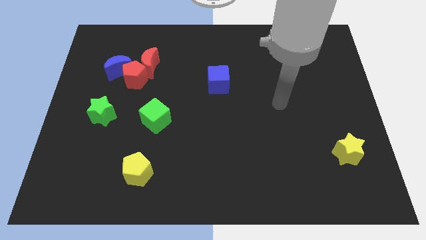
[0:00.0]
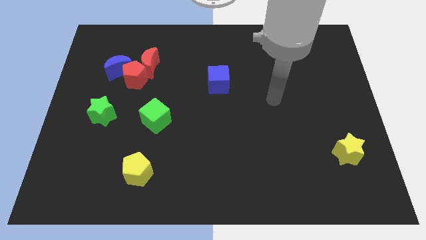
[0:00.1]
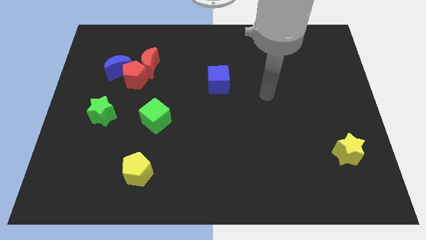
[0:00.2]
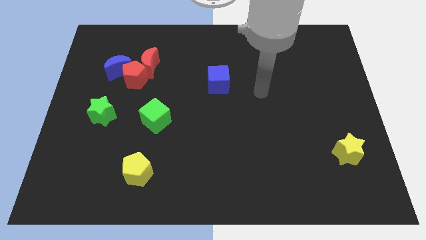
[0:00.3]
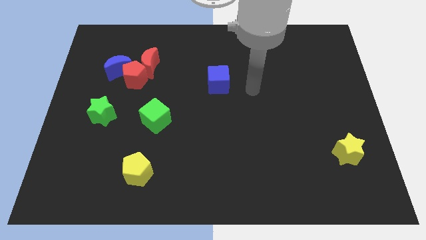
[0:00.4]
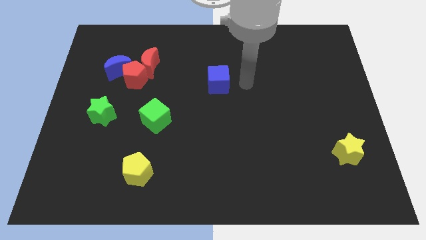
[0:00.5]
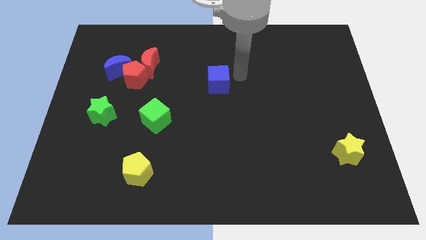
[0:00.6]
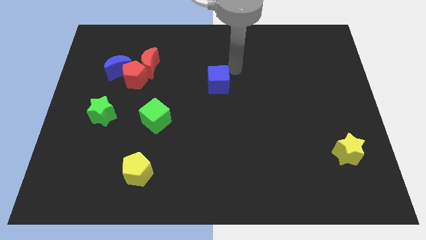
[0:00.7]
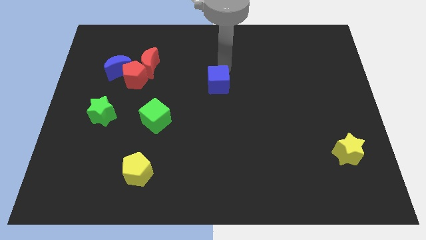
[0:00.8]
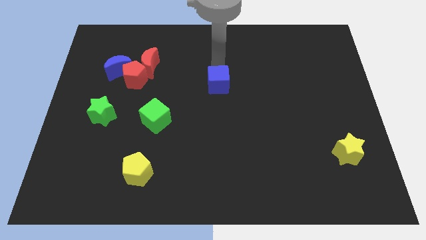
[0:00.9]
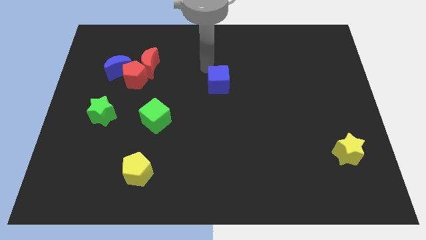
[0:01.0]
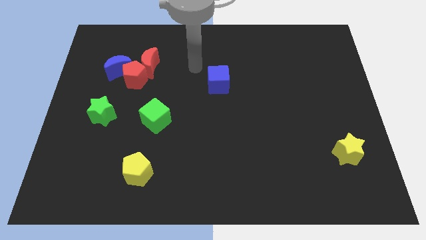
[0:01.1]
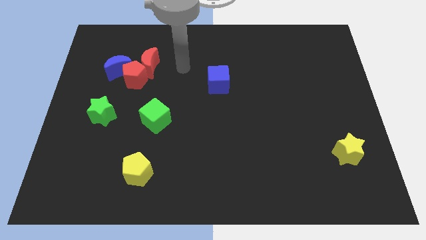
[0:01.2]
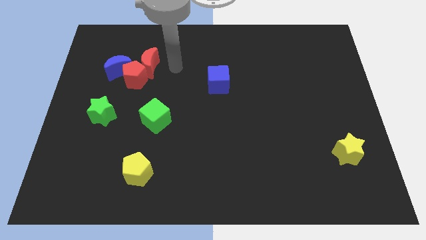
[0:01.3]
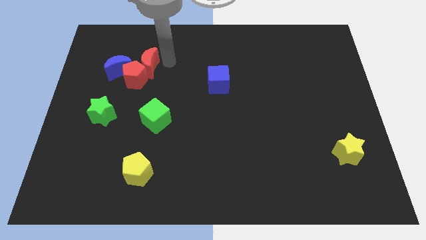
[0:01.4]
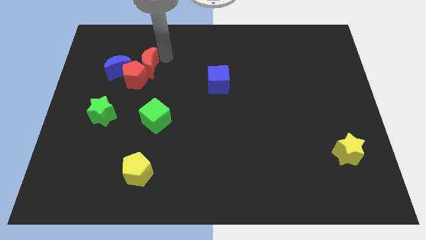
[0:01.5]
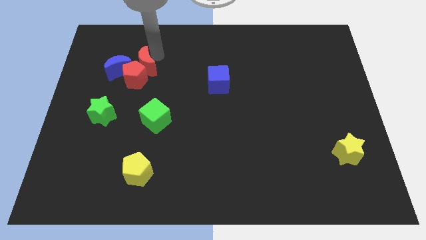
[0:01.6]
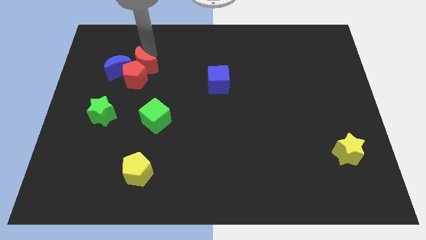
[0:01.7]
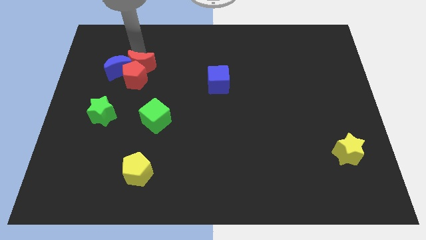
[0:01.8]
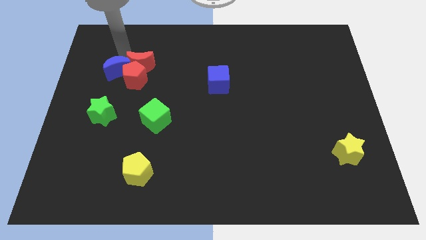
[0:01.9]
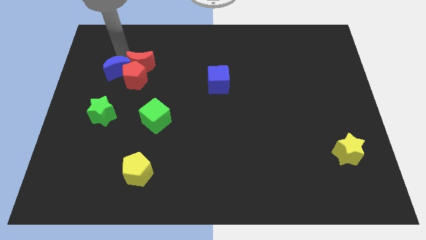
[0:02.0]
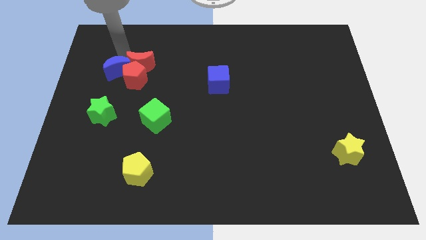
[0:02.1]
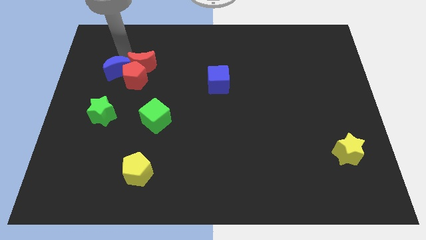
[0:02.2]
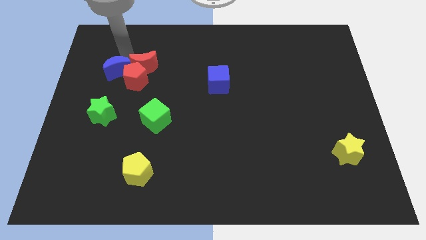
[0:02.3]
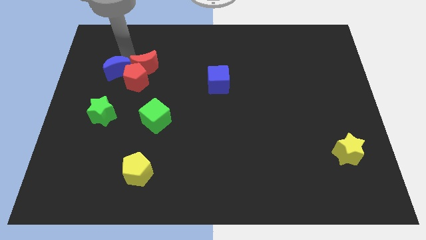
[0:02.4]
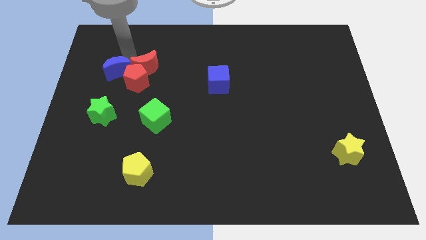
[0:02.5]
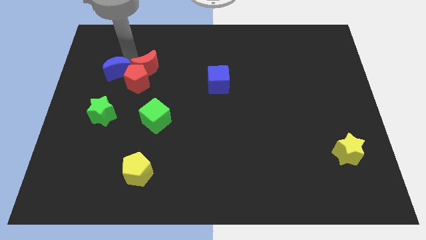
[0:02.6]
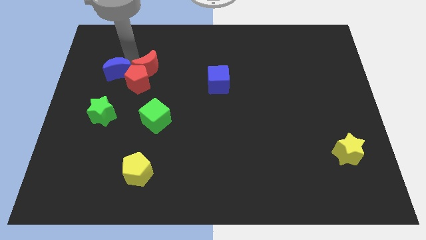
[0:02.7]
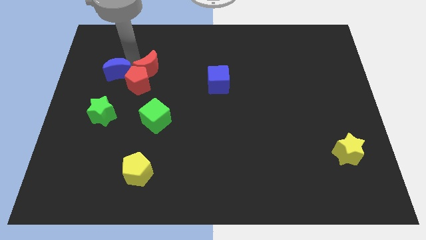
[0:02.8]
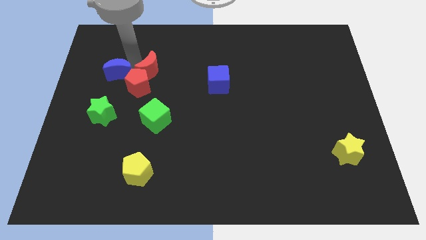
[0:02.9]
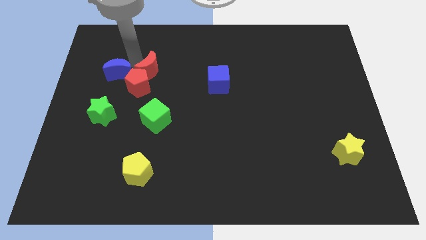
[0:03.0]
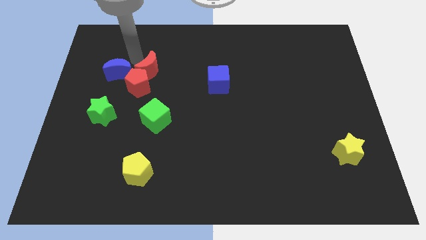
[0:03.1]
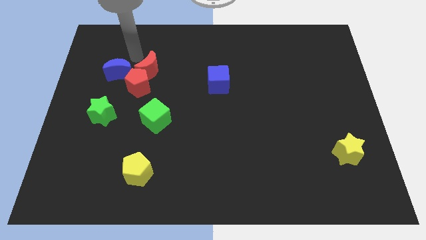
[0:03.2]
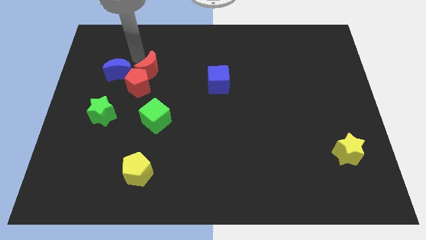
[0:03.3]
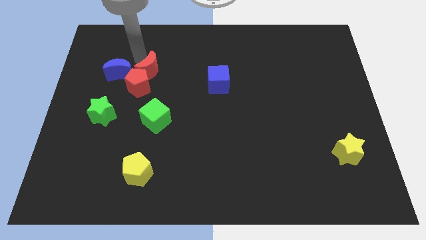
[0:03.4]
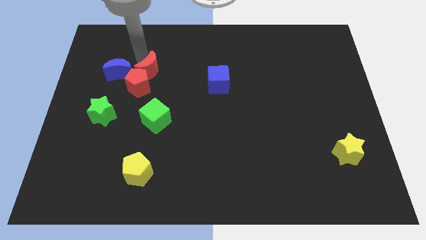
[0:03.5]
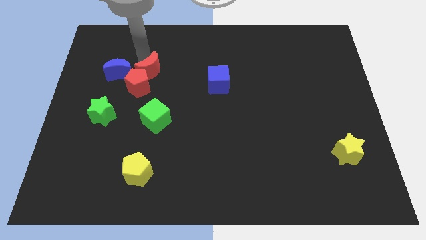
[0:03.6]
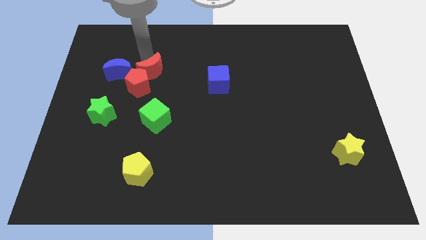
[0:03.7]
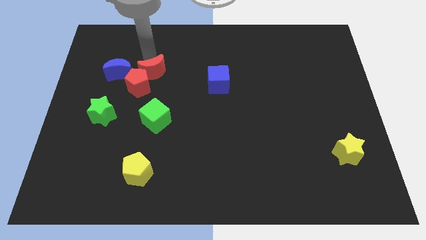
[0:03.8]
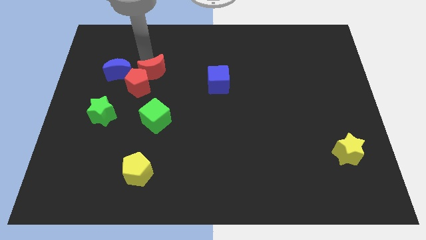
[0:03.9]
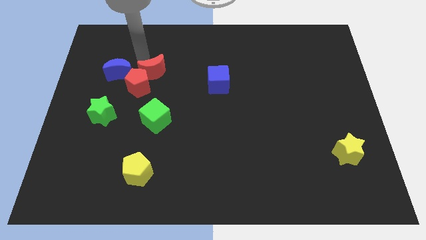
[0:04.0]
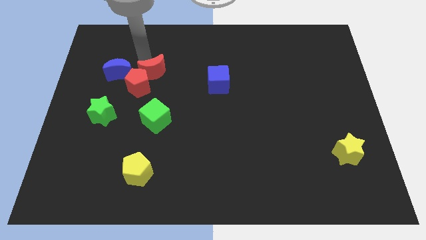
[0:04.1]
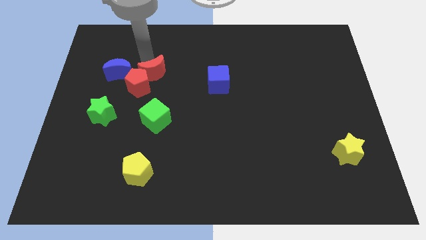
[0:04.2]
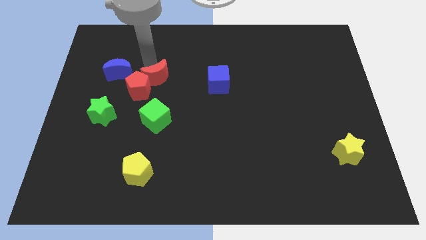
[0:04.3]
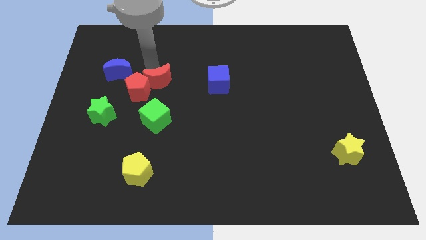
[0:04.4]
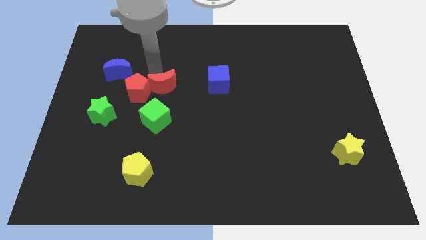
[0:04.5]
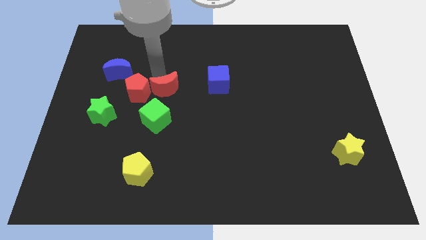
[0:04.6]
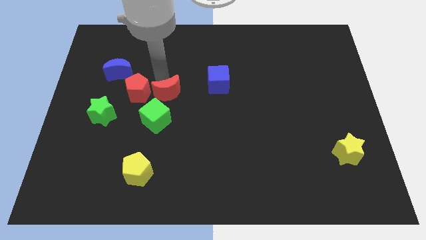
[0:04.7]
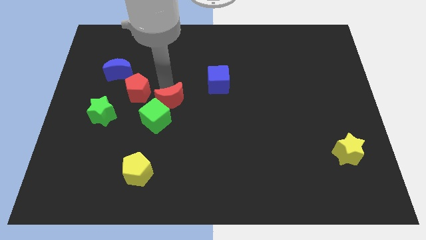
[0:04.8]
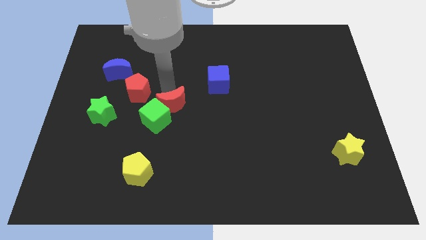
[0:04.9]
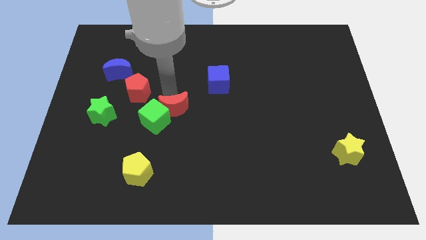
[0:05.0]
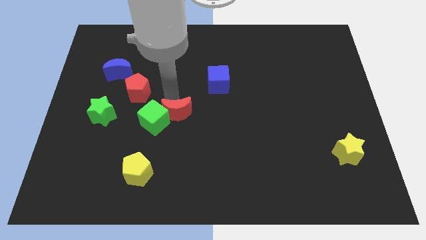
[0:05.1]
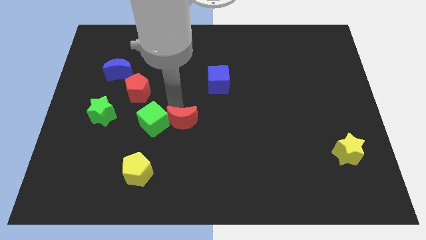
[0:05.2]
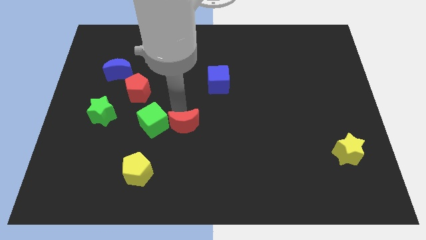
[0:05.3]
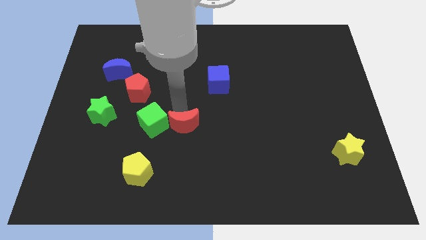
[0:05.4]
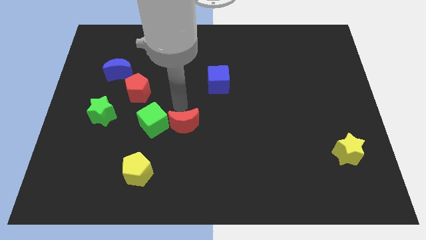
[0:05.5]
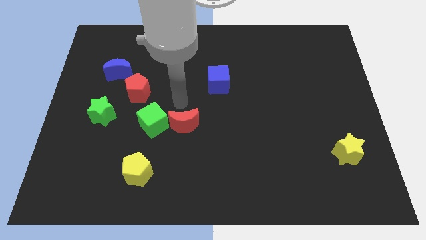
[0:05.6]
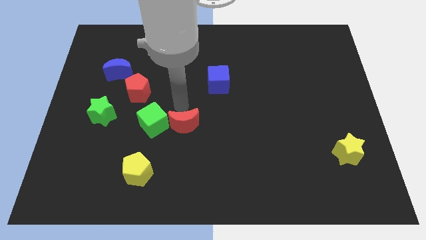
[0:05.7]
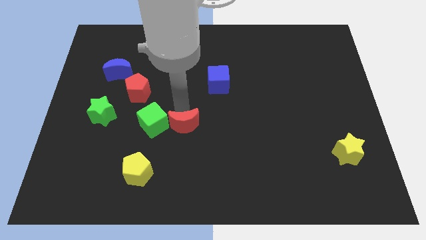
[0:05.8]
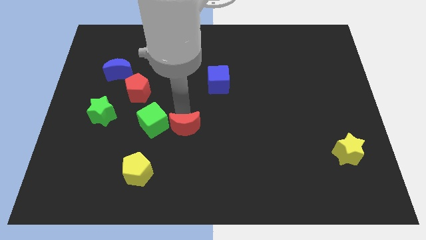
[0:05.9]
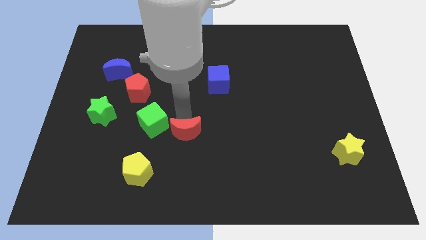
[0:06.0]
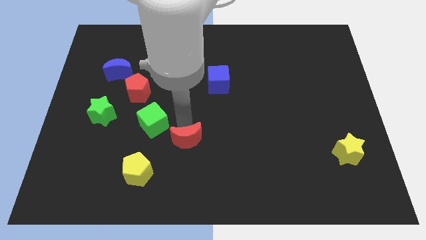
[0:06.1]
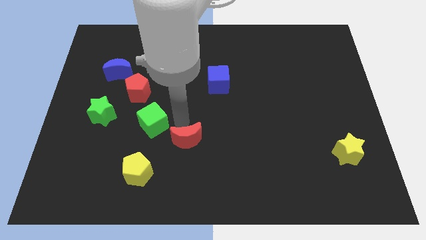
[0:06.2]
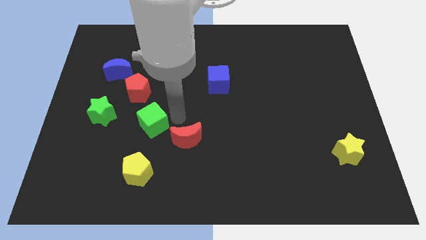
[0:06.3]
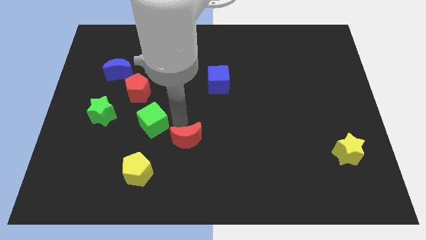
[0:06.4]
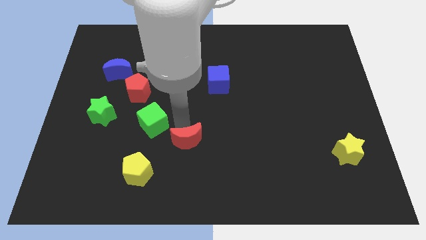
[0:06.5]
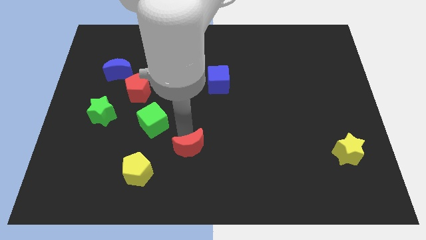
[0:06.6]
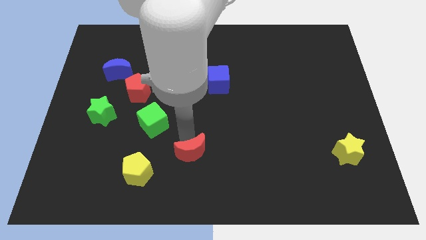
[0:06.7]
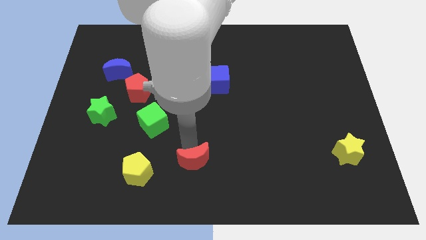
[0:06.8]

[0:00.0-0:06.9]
put the red moon to the bottom
